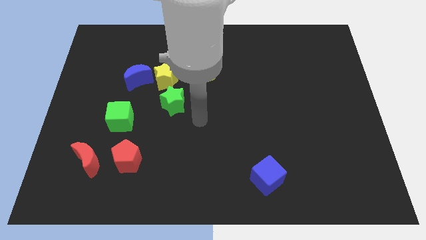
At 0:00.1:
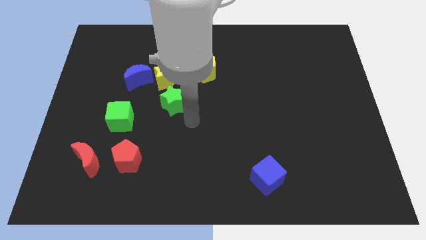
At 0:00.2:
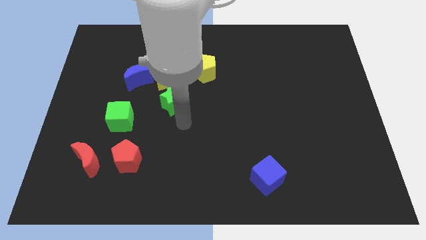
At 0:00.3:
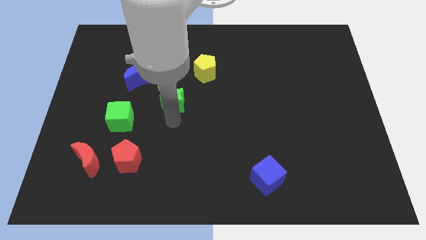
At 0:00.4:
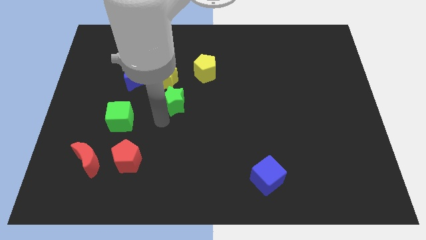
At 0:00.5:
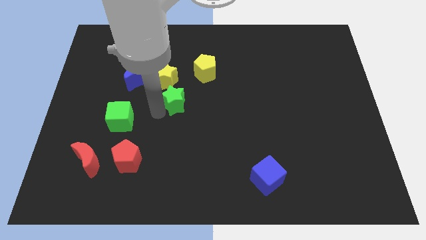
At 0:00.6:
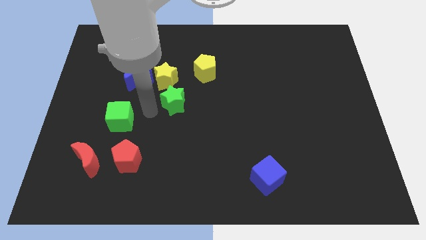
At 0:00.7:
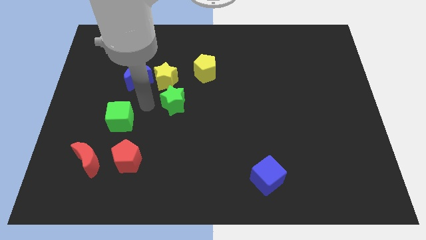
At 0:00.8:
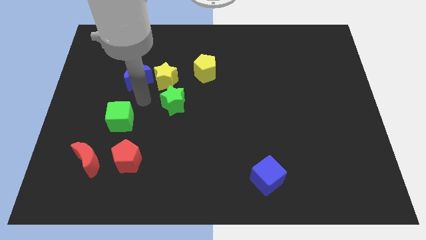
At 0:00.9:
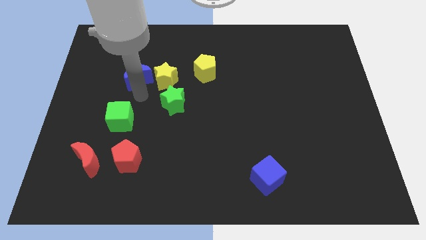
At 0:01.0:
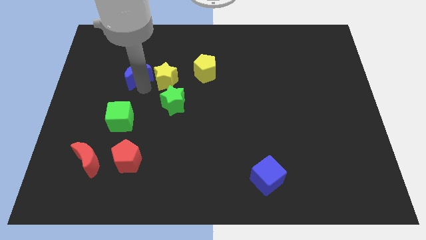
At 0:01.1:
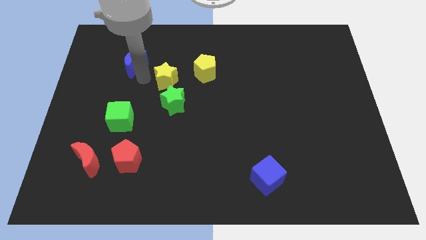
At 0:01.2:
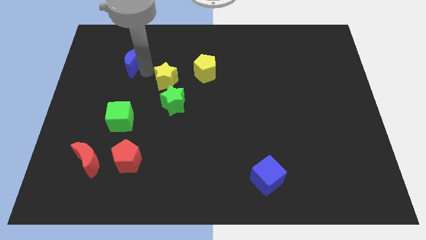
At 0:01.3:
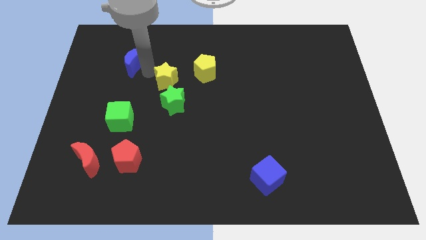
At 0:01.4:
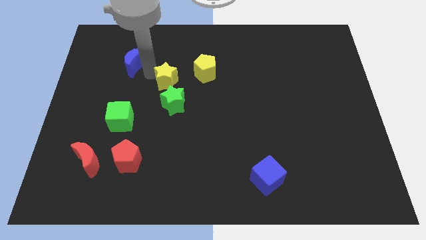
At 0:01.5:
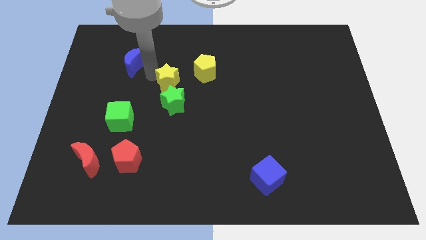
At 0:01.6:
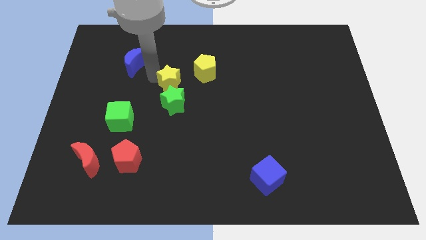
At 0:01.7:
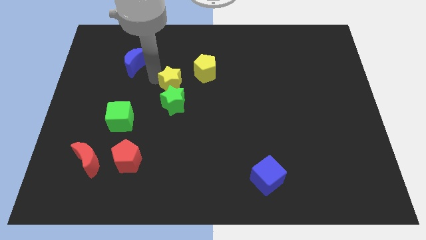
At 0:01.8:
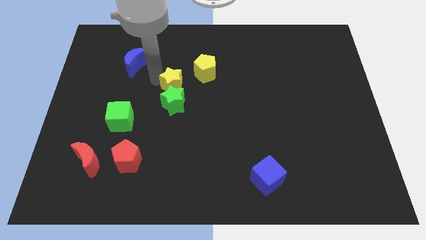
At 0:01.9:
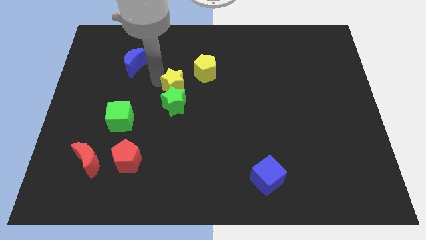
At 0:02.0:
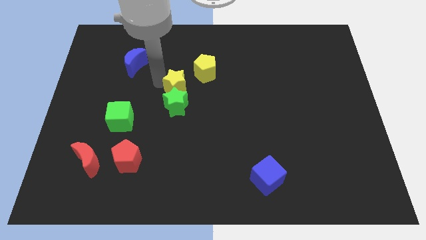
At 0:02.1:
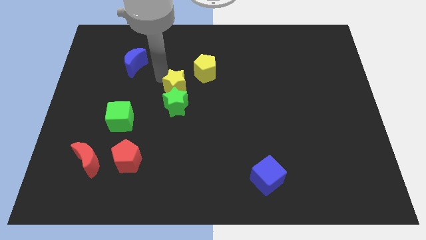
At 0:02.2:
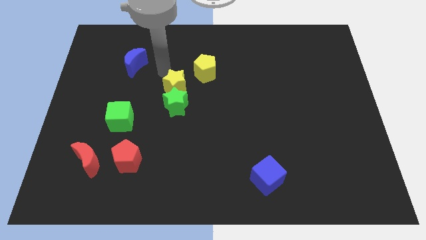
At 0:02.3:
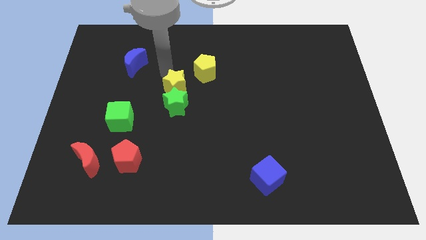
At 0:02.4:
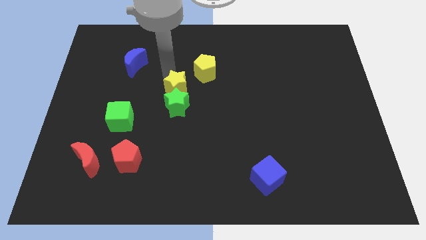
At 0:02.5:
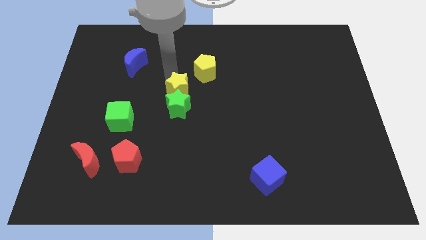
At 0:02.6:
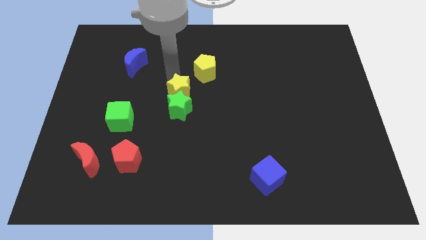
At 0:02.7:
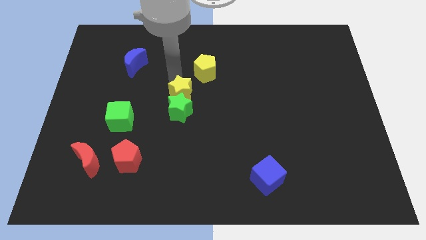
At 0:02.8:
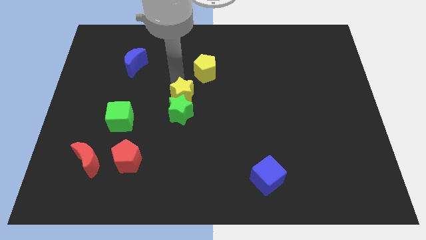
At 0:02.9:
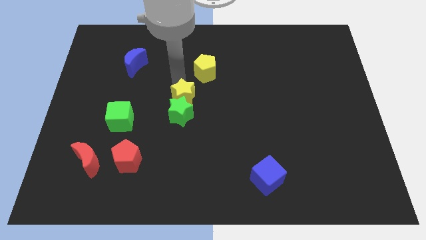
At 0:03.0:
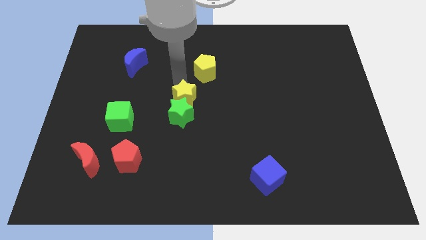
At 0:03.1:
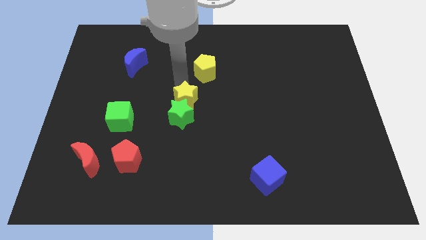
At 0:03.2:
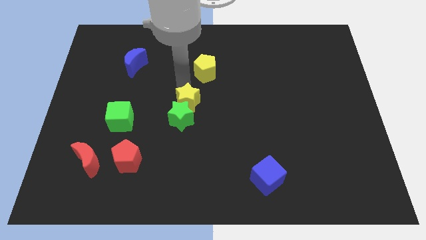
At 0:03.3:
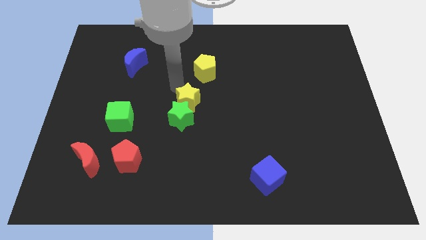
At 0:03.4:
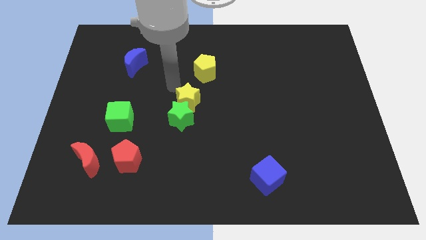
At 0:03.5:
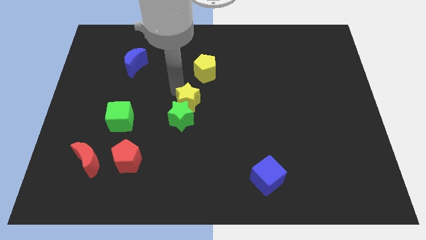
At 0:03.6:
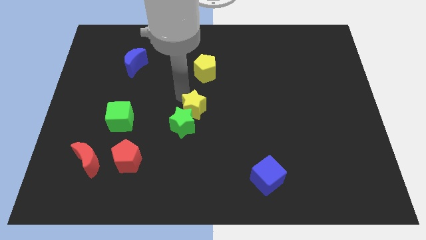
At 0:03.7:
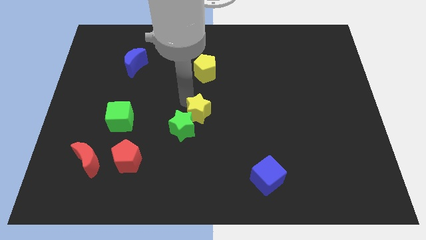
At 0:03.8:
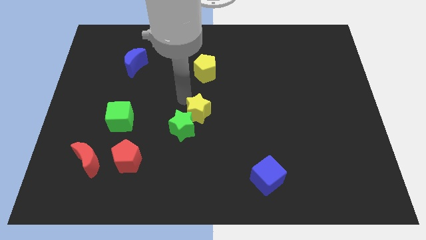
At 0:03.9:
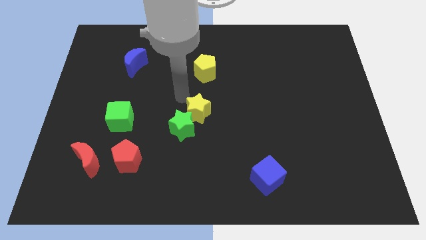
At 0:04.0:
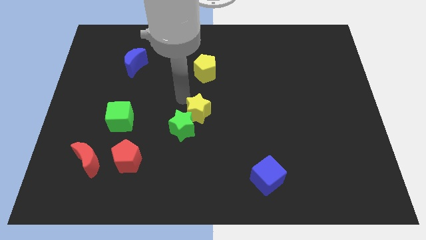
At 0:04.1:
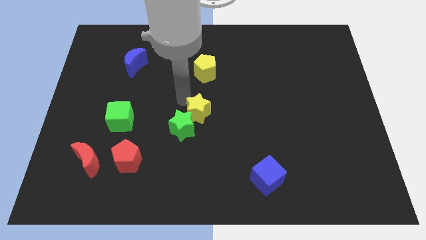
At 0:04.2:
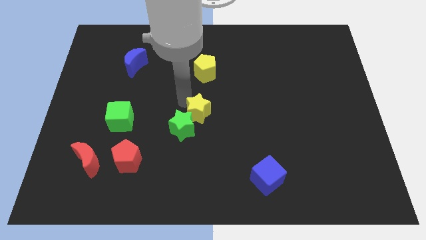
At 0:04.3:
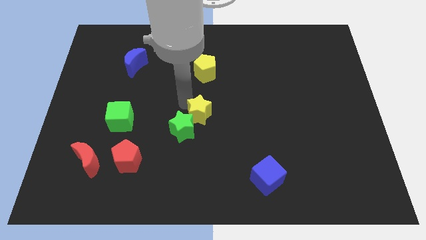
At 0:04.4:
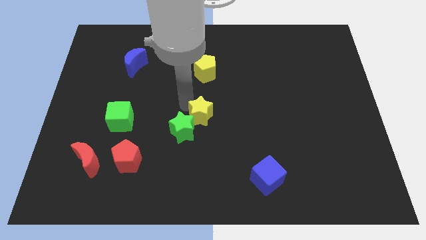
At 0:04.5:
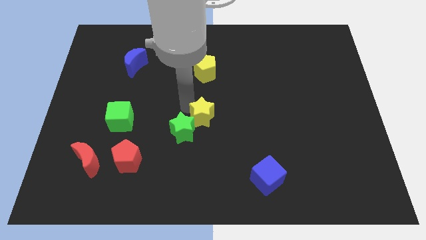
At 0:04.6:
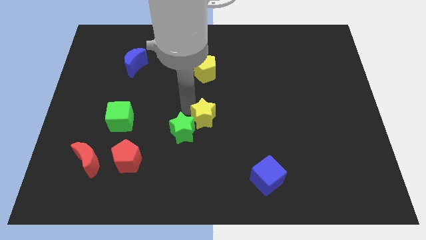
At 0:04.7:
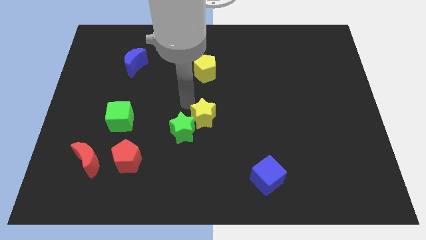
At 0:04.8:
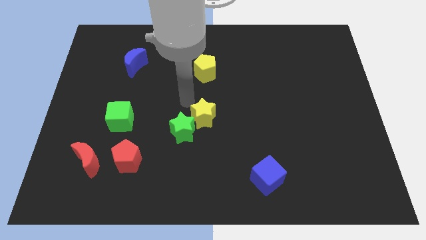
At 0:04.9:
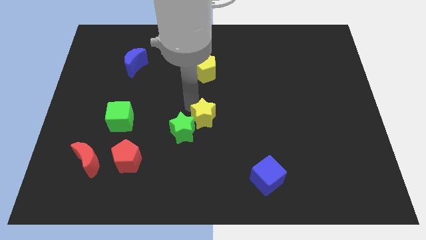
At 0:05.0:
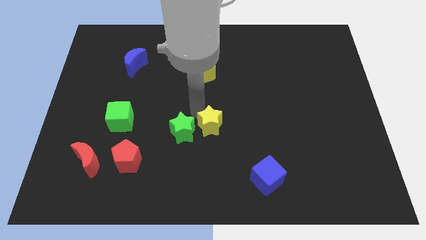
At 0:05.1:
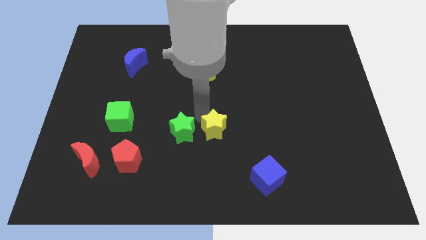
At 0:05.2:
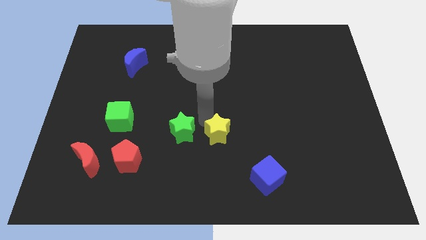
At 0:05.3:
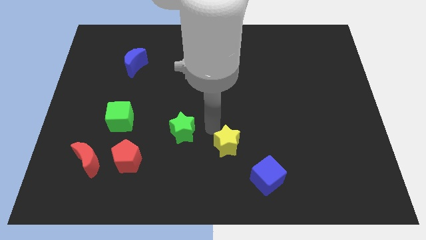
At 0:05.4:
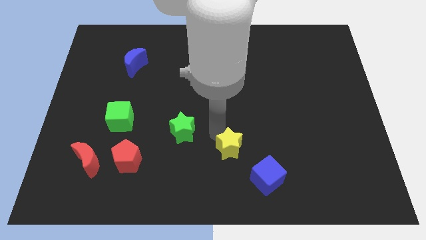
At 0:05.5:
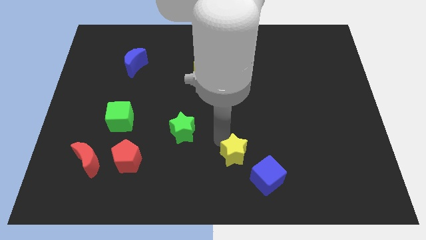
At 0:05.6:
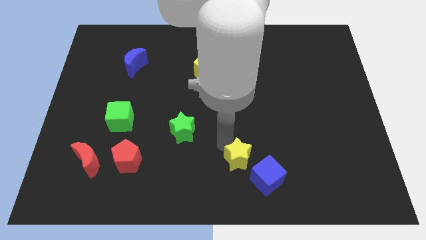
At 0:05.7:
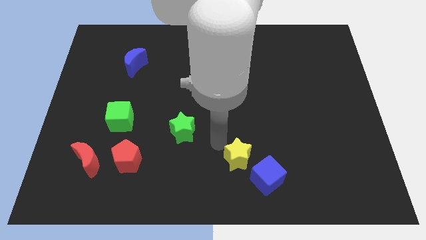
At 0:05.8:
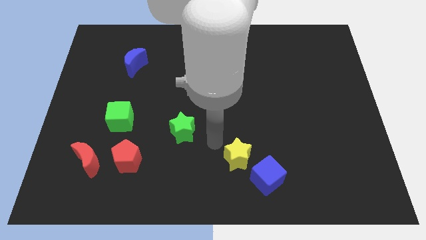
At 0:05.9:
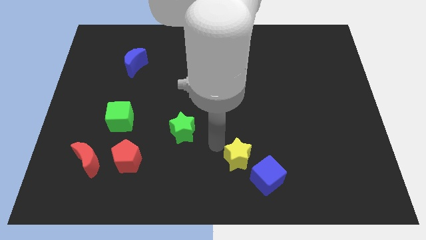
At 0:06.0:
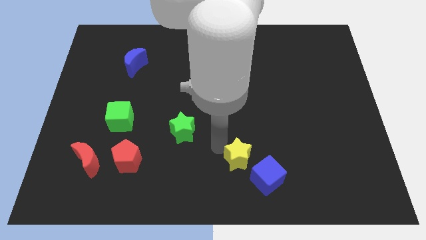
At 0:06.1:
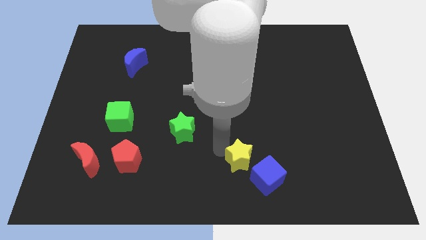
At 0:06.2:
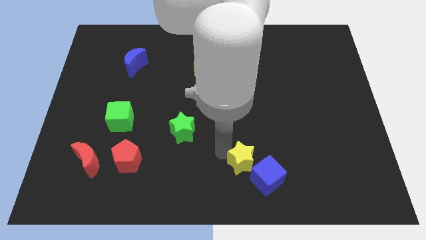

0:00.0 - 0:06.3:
slide the yellow star towards the blue cube

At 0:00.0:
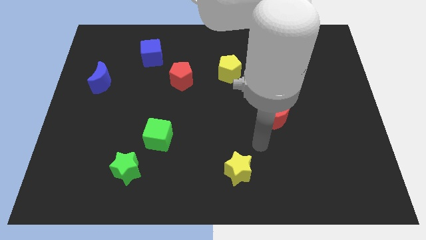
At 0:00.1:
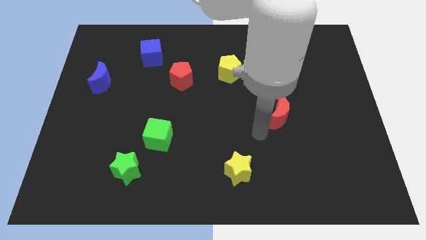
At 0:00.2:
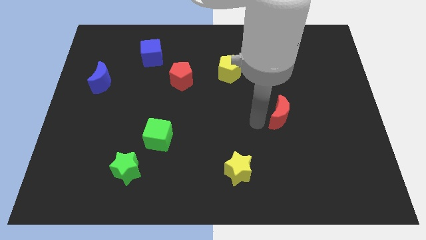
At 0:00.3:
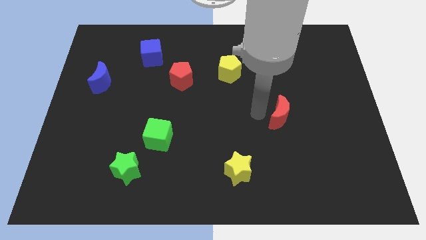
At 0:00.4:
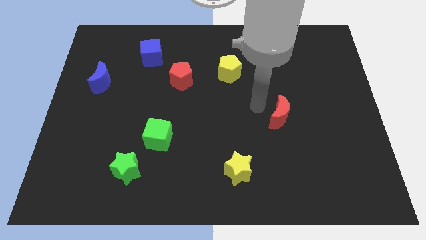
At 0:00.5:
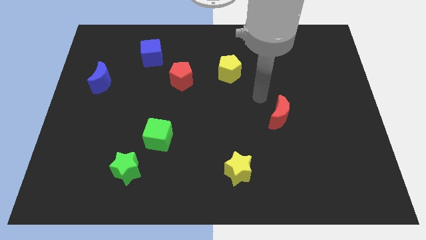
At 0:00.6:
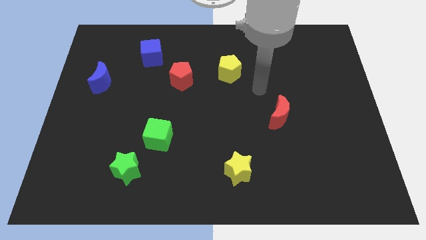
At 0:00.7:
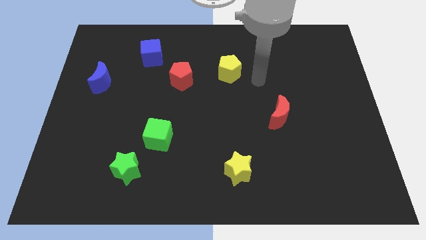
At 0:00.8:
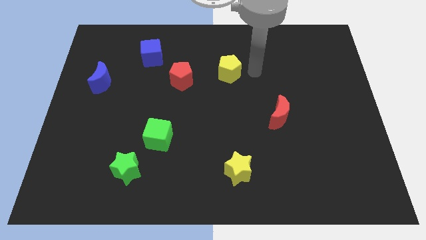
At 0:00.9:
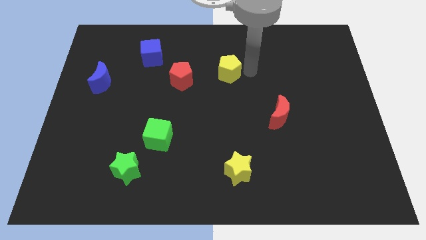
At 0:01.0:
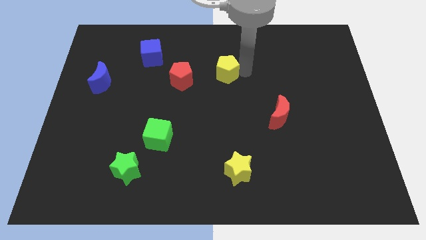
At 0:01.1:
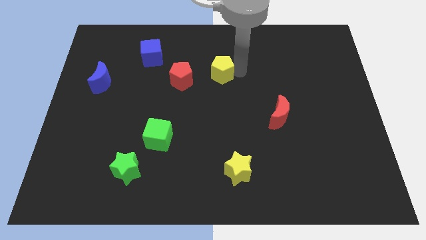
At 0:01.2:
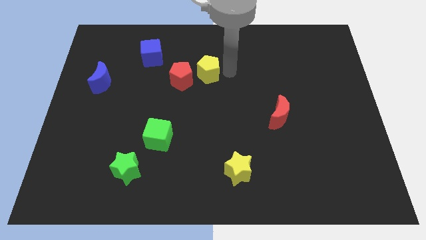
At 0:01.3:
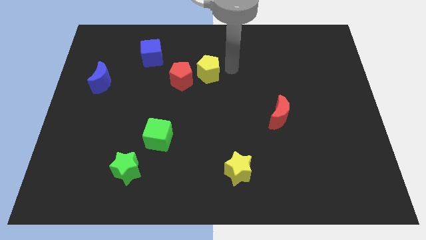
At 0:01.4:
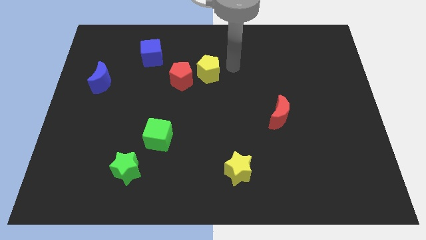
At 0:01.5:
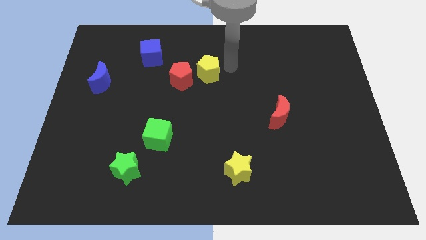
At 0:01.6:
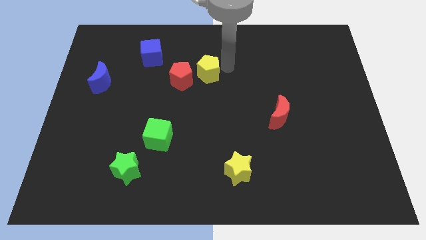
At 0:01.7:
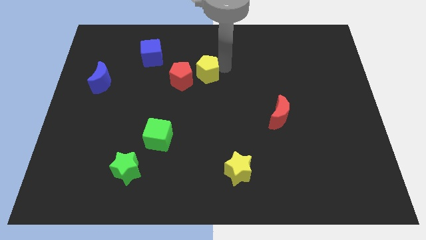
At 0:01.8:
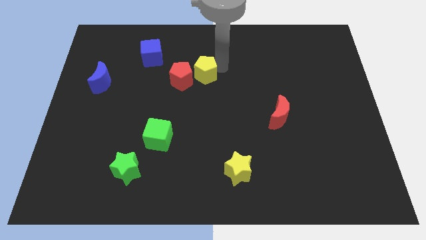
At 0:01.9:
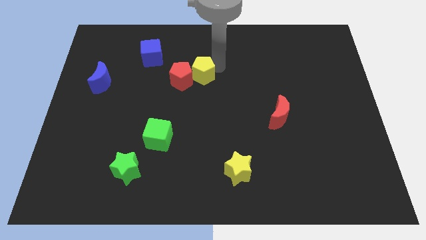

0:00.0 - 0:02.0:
put the yellow pentagon close to the red pentagon
